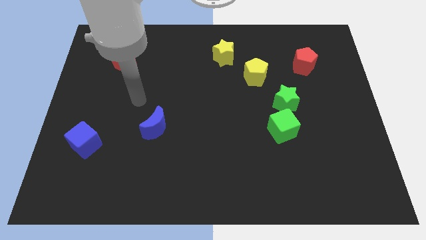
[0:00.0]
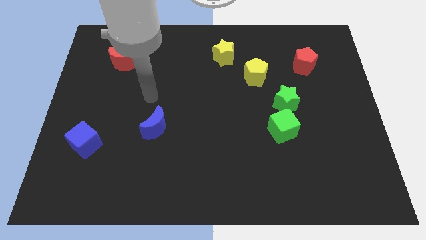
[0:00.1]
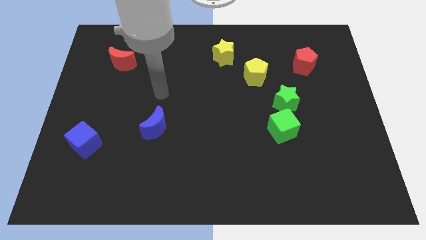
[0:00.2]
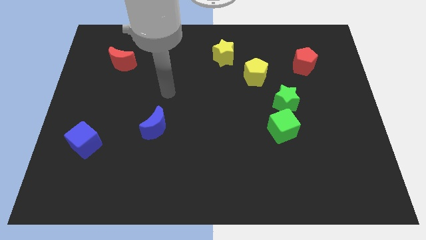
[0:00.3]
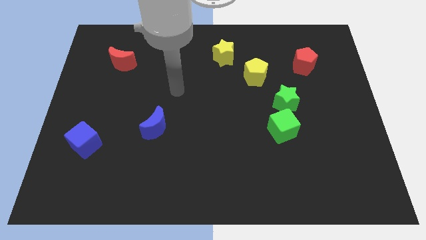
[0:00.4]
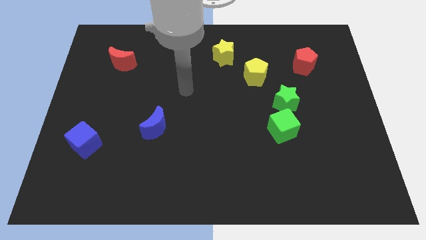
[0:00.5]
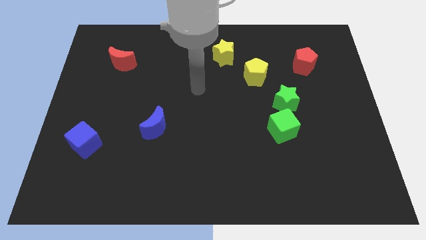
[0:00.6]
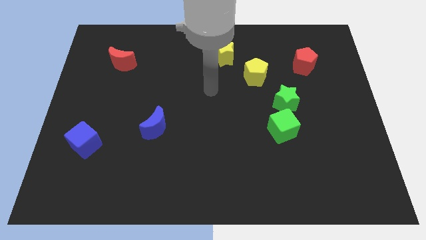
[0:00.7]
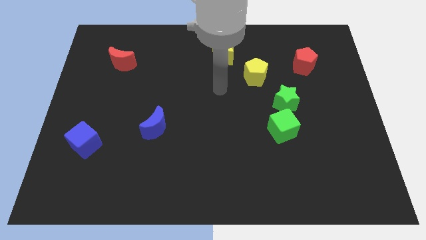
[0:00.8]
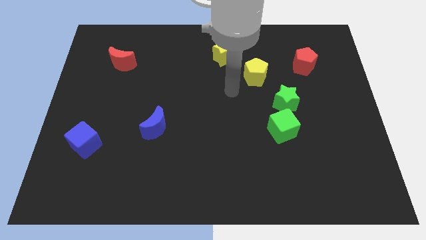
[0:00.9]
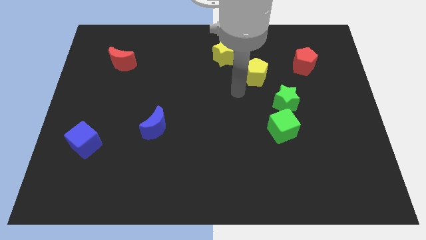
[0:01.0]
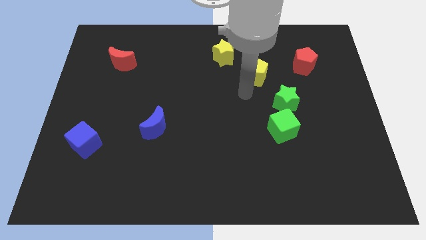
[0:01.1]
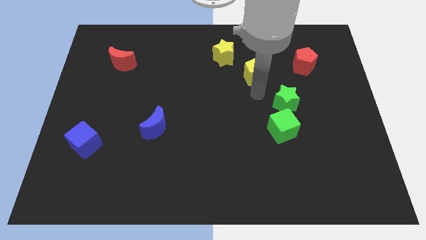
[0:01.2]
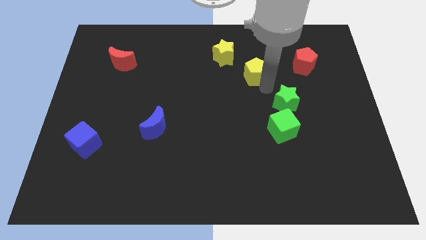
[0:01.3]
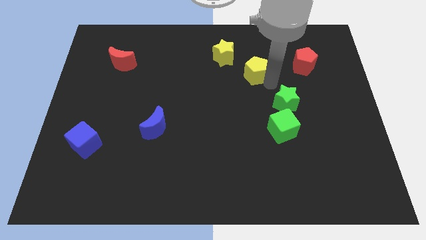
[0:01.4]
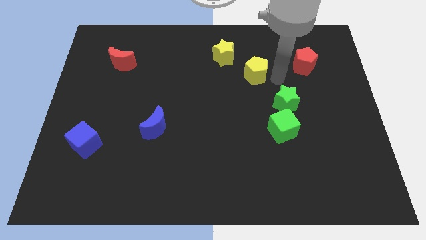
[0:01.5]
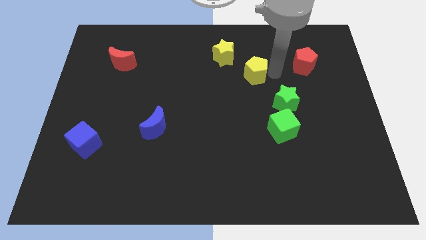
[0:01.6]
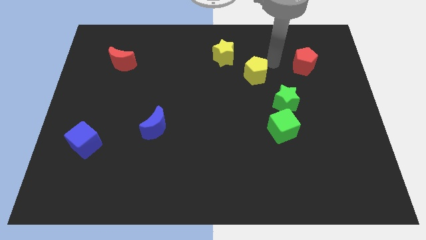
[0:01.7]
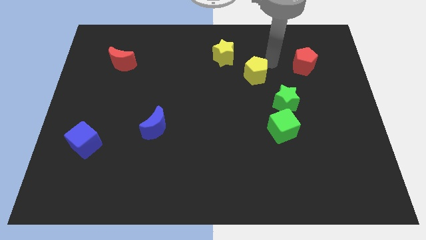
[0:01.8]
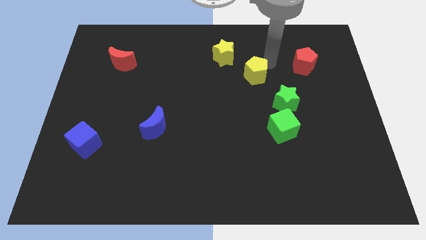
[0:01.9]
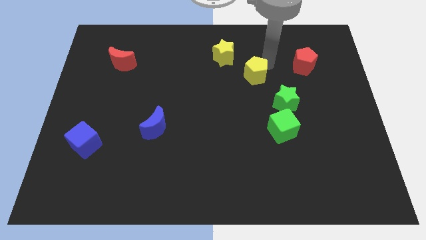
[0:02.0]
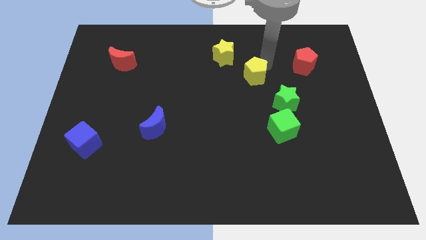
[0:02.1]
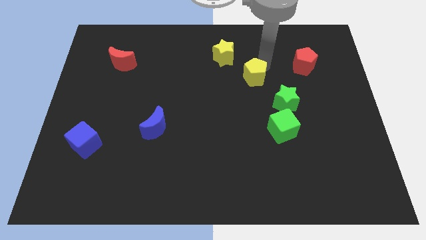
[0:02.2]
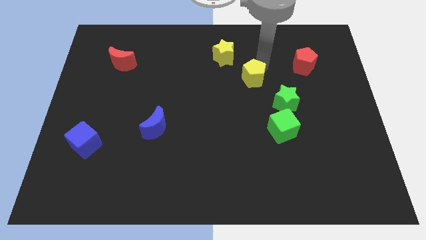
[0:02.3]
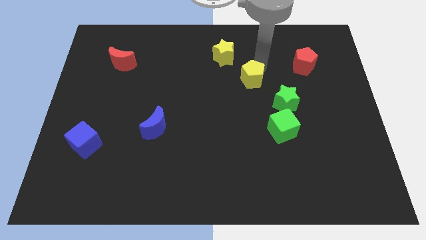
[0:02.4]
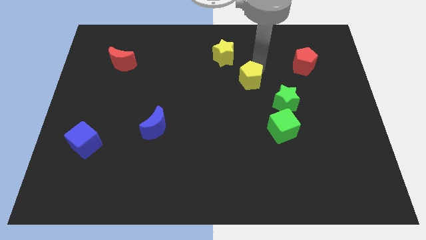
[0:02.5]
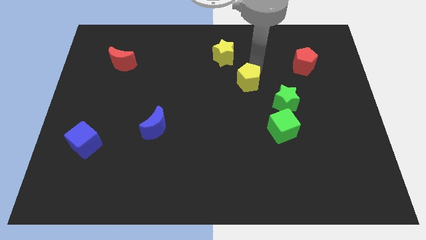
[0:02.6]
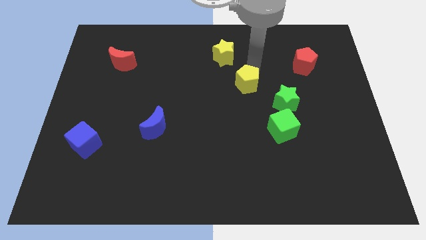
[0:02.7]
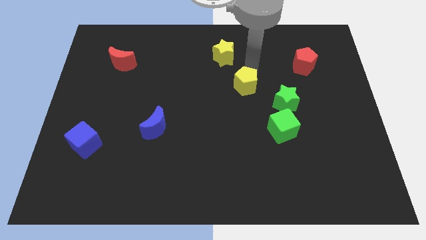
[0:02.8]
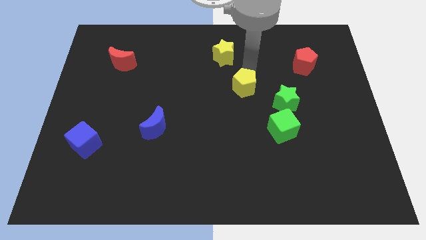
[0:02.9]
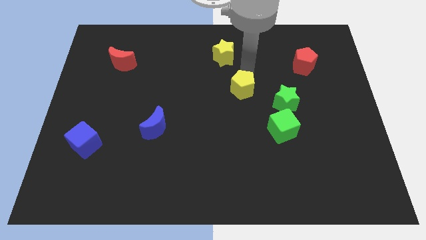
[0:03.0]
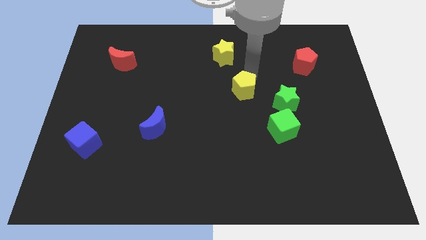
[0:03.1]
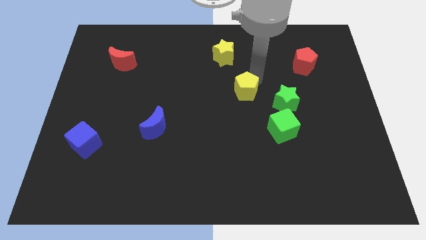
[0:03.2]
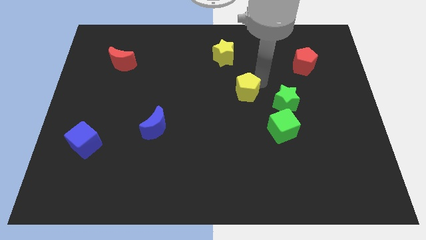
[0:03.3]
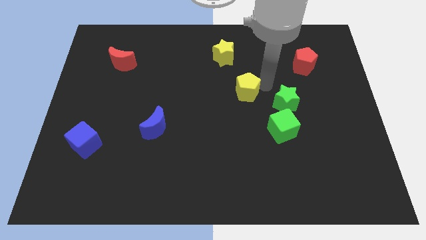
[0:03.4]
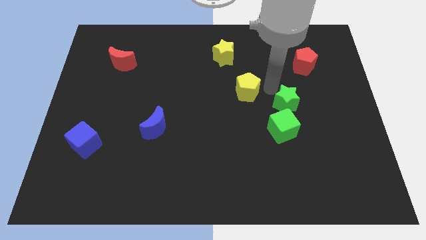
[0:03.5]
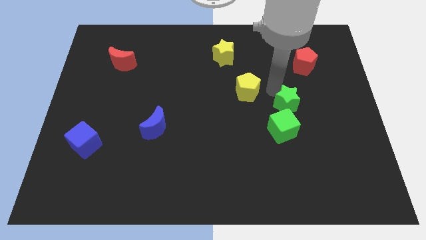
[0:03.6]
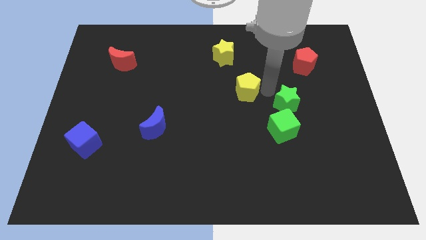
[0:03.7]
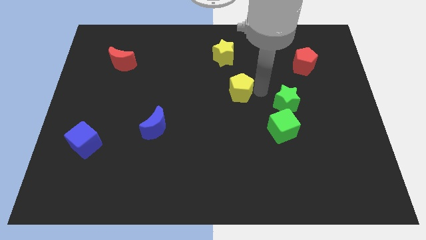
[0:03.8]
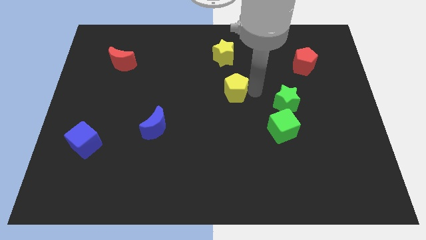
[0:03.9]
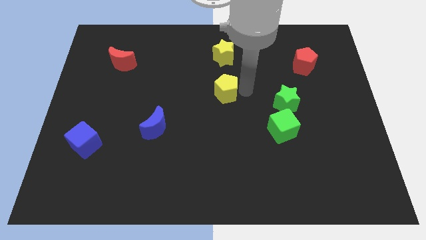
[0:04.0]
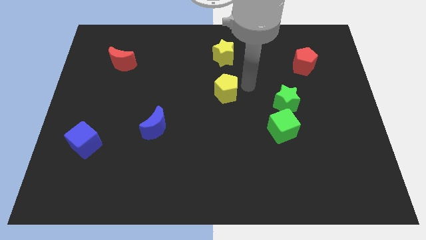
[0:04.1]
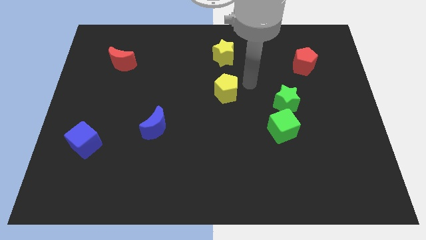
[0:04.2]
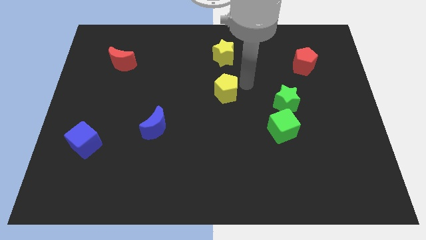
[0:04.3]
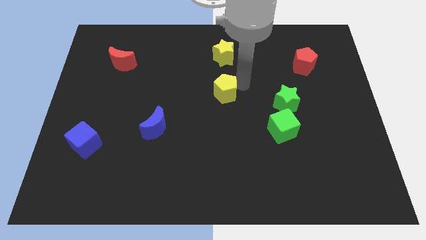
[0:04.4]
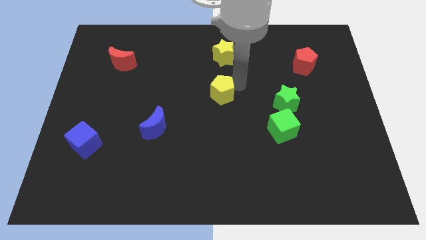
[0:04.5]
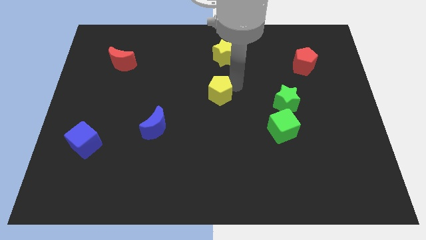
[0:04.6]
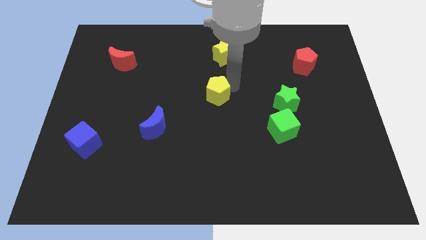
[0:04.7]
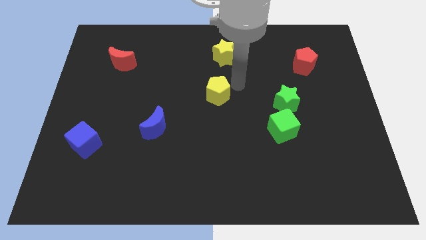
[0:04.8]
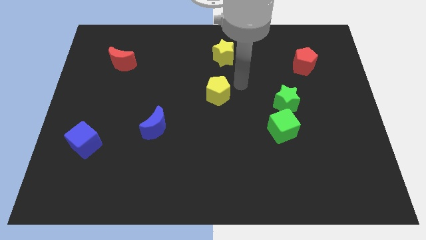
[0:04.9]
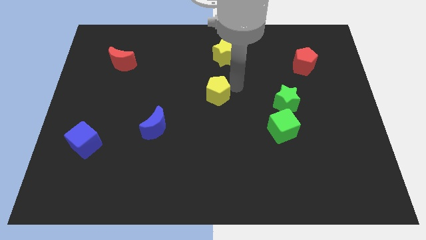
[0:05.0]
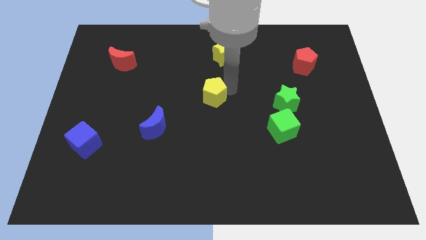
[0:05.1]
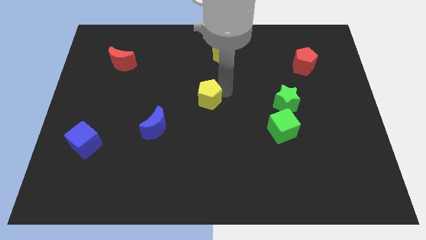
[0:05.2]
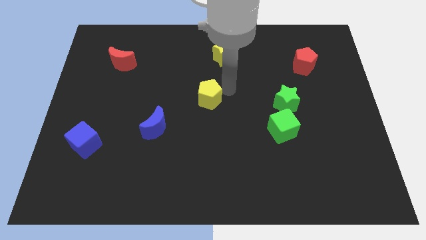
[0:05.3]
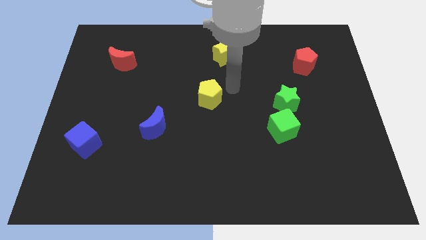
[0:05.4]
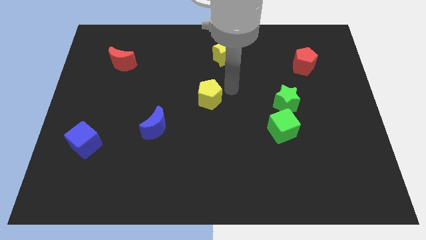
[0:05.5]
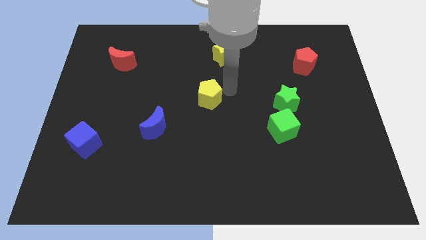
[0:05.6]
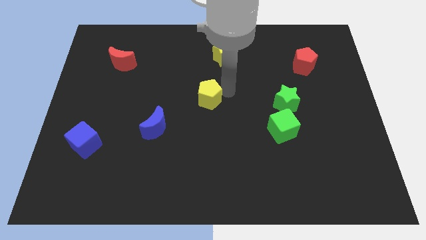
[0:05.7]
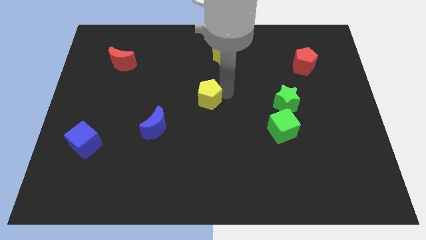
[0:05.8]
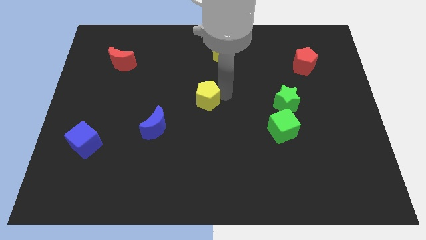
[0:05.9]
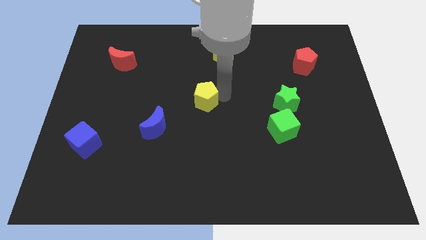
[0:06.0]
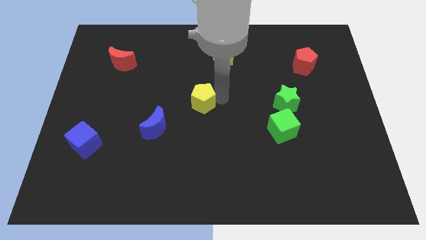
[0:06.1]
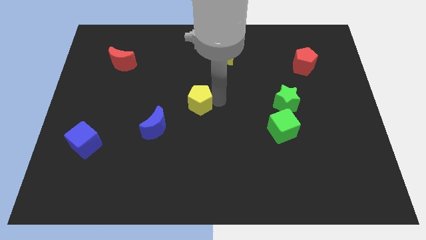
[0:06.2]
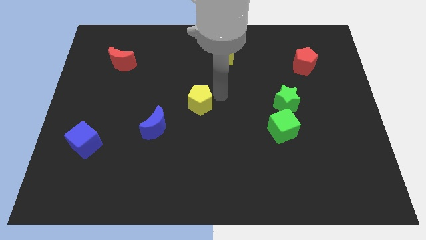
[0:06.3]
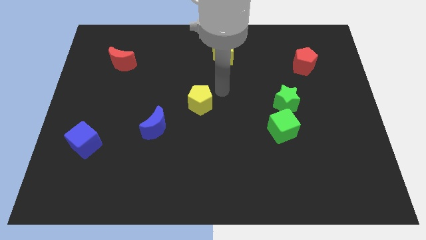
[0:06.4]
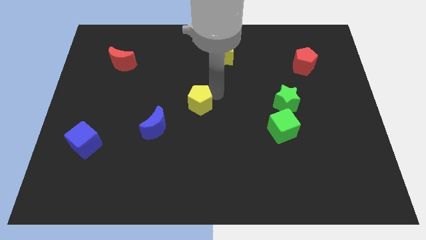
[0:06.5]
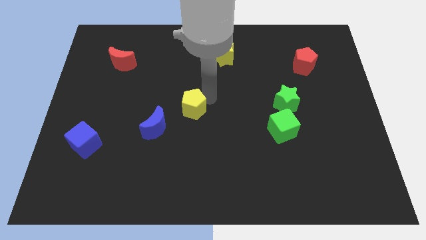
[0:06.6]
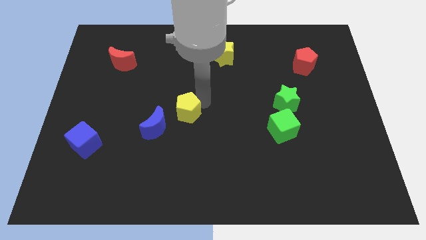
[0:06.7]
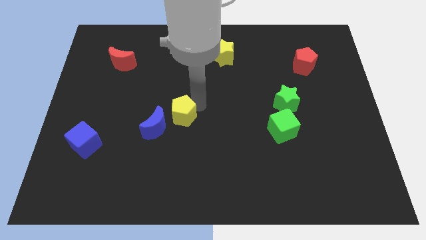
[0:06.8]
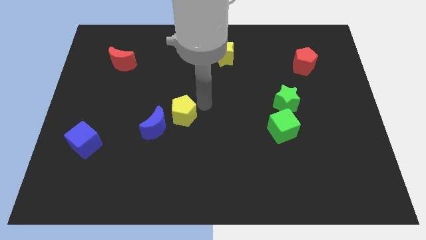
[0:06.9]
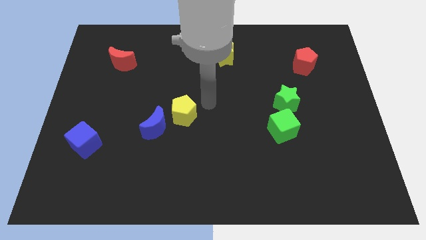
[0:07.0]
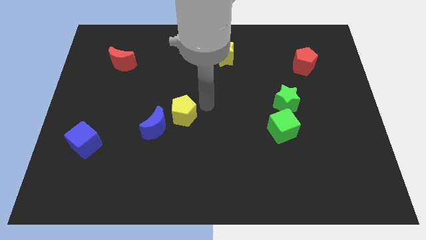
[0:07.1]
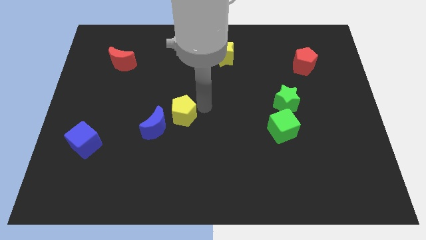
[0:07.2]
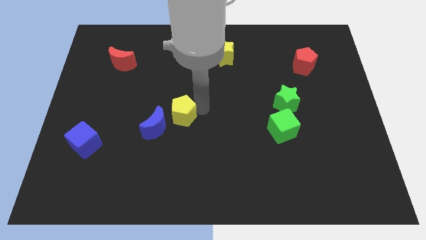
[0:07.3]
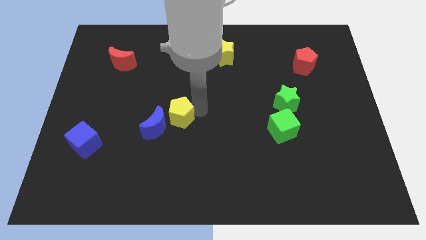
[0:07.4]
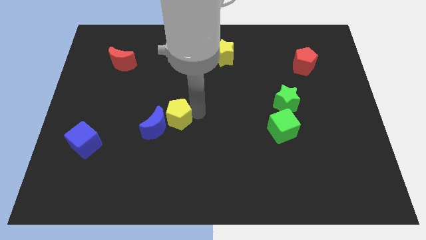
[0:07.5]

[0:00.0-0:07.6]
push the yellow pentagon towards the blue moon
